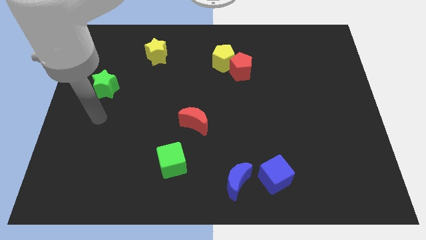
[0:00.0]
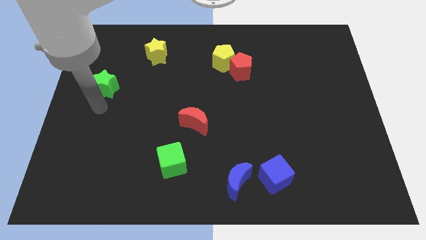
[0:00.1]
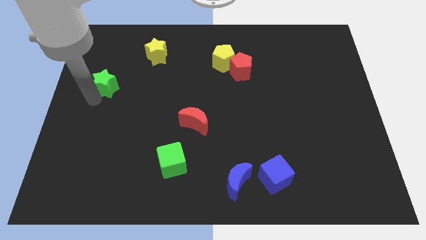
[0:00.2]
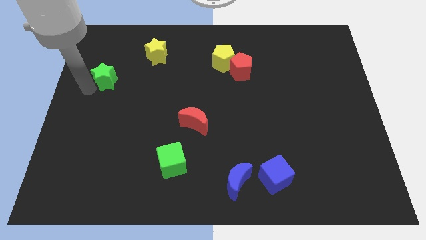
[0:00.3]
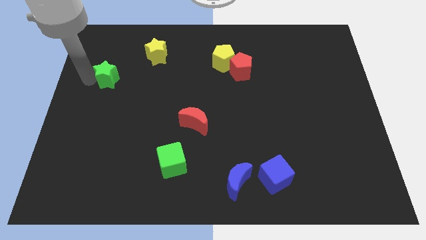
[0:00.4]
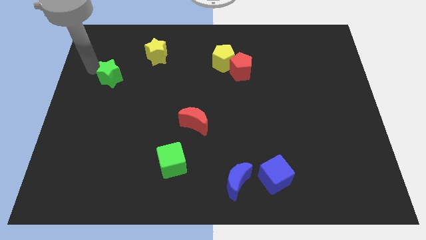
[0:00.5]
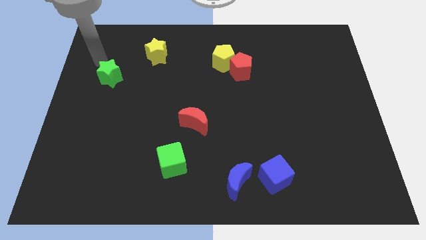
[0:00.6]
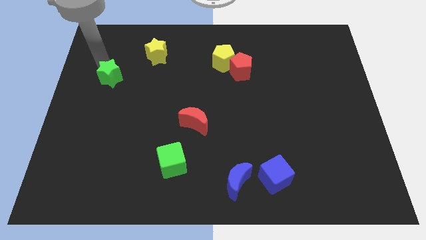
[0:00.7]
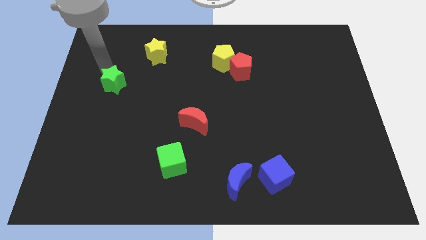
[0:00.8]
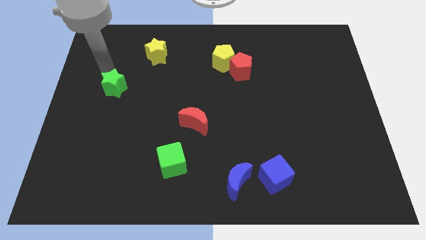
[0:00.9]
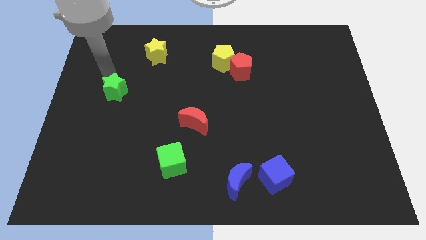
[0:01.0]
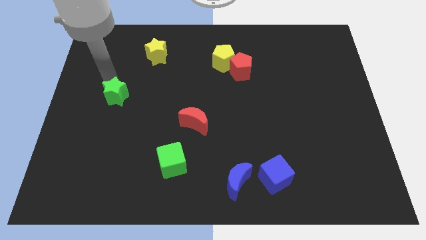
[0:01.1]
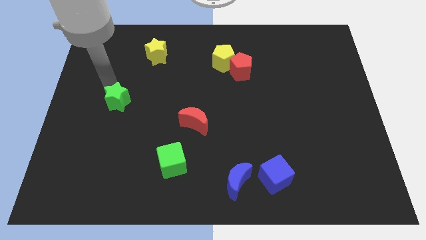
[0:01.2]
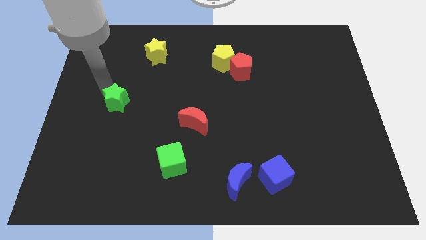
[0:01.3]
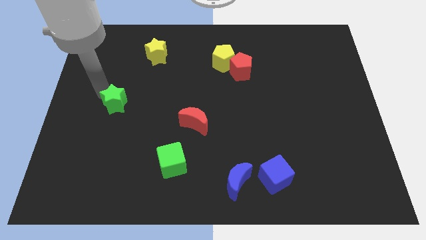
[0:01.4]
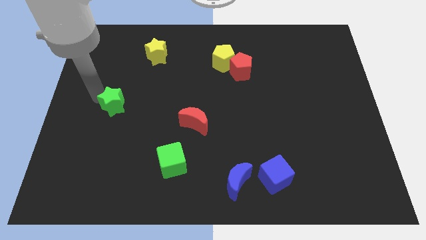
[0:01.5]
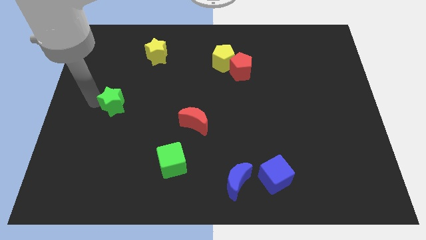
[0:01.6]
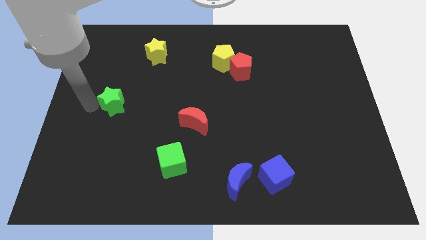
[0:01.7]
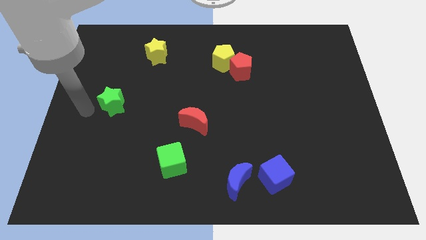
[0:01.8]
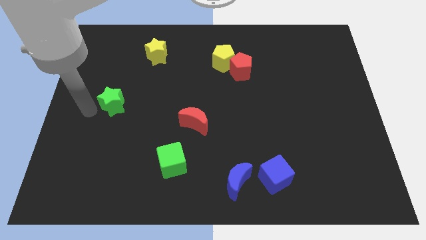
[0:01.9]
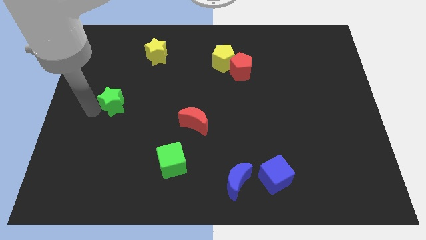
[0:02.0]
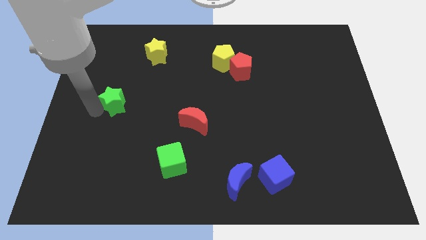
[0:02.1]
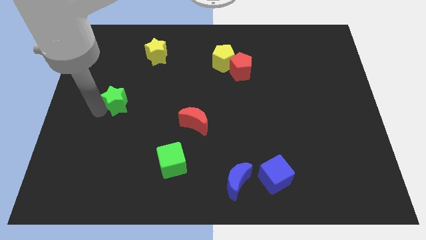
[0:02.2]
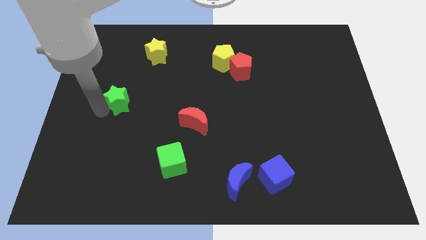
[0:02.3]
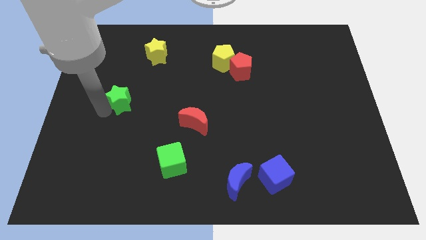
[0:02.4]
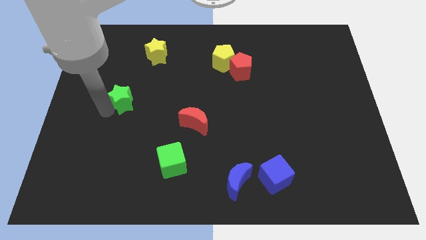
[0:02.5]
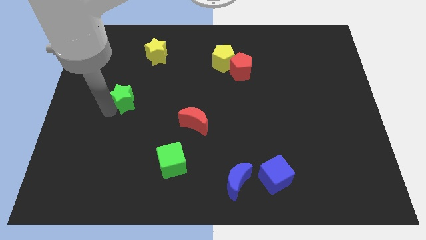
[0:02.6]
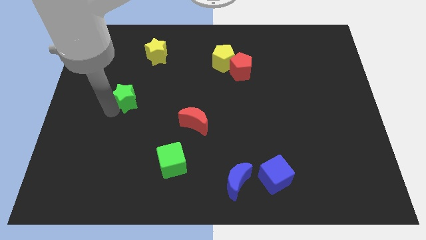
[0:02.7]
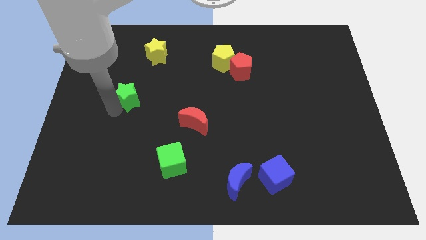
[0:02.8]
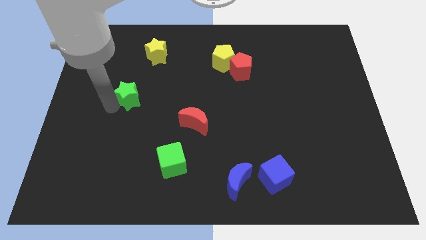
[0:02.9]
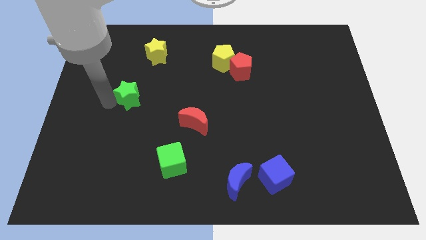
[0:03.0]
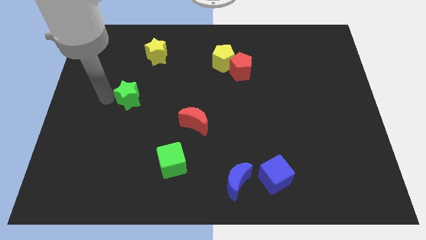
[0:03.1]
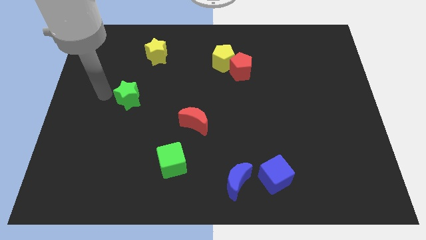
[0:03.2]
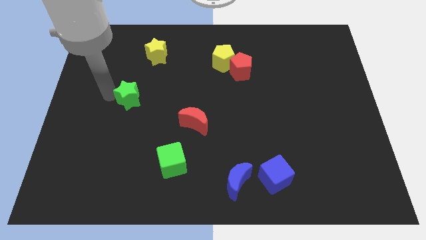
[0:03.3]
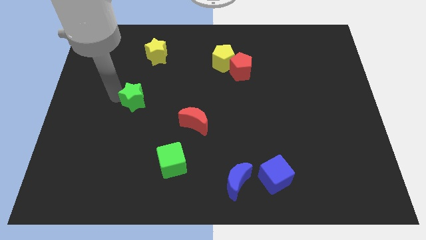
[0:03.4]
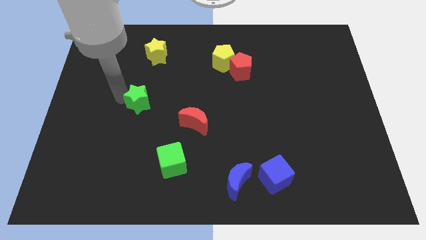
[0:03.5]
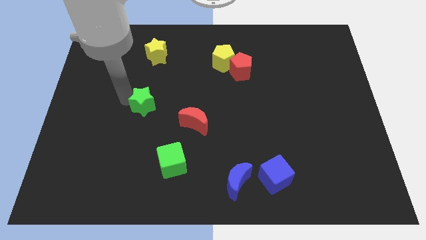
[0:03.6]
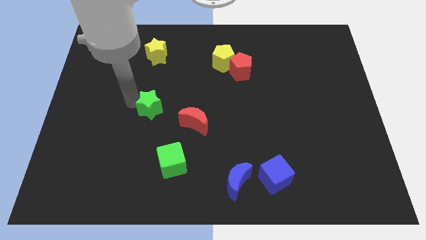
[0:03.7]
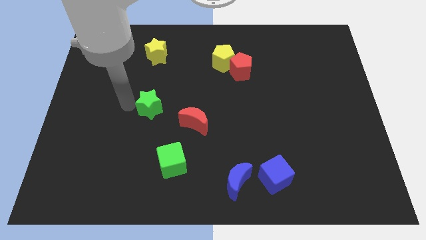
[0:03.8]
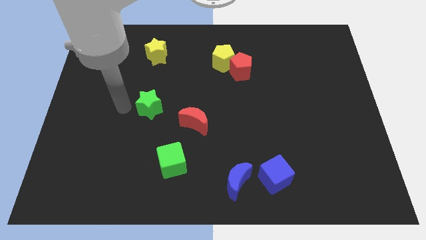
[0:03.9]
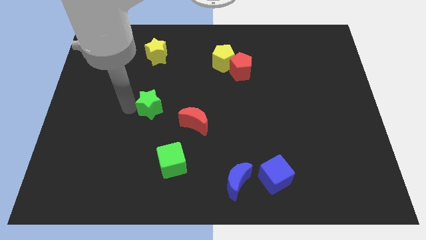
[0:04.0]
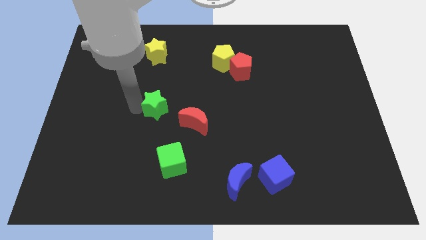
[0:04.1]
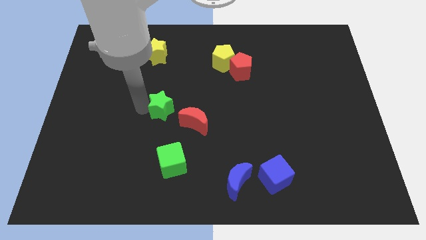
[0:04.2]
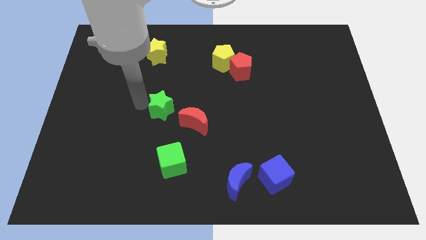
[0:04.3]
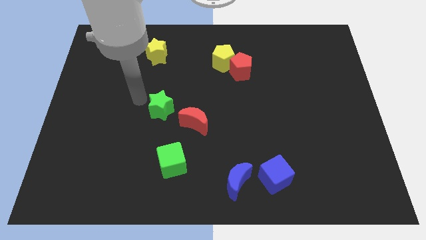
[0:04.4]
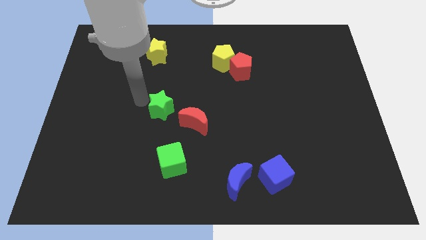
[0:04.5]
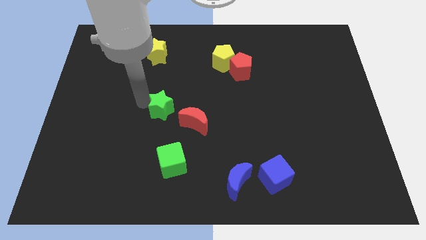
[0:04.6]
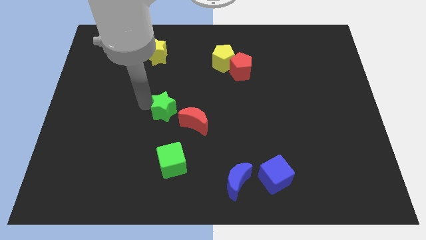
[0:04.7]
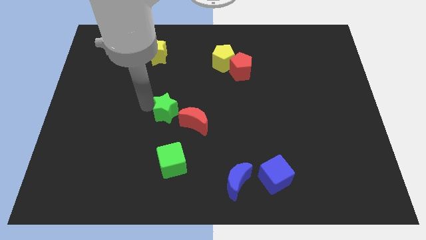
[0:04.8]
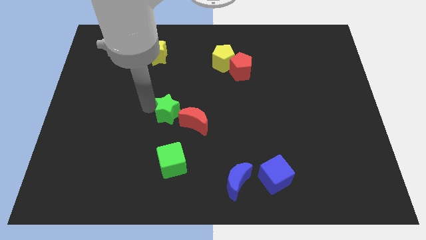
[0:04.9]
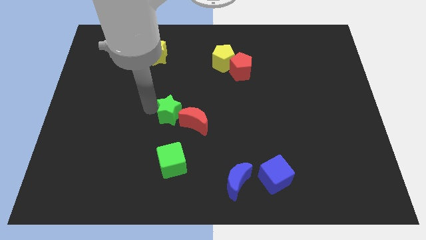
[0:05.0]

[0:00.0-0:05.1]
slide the green star next to the red moon

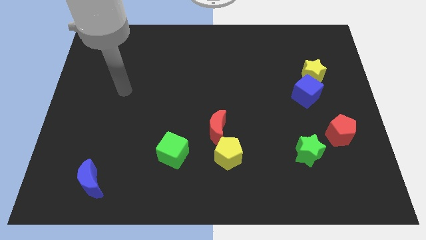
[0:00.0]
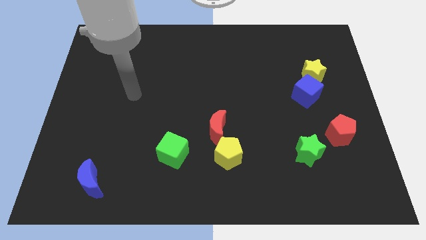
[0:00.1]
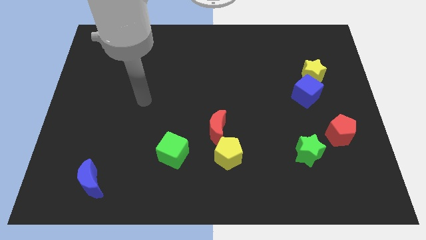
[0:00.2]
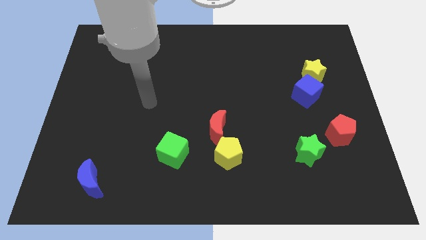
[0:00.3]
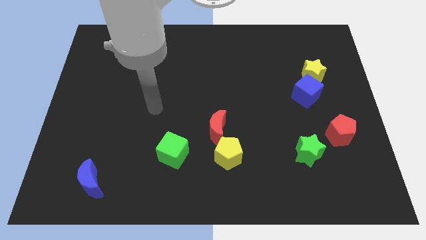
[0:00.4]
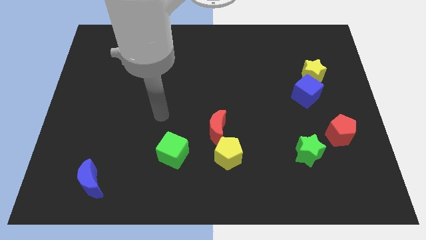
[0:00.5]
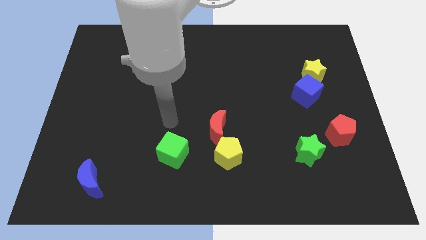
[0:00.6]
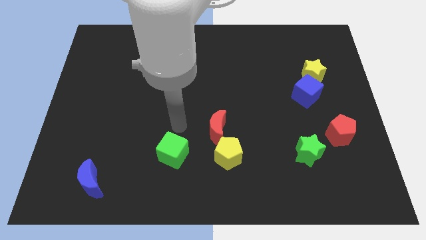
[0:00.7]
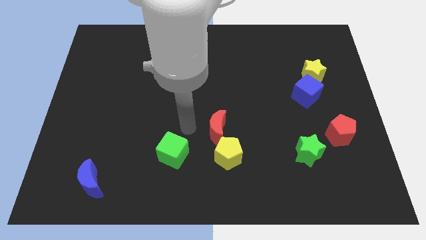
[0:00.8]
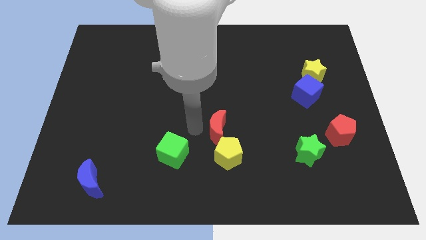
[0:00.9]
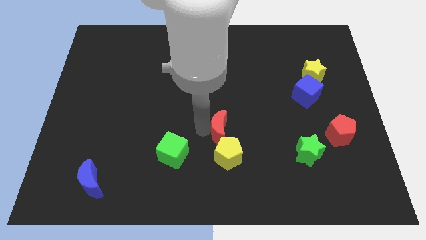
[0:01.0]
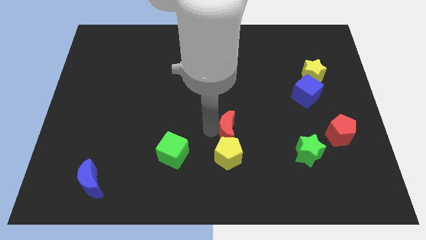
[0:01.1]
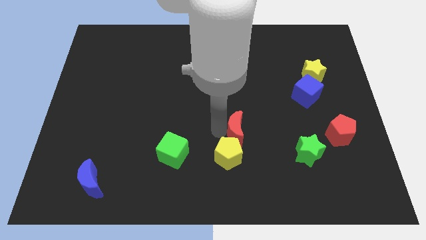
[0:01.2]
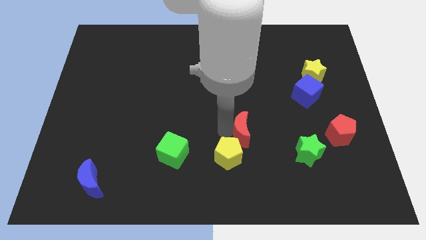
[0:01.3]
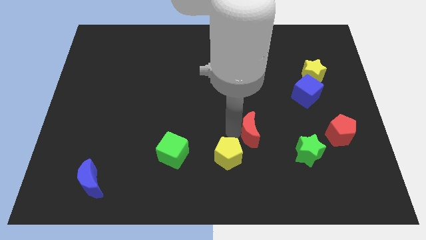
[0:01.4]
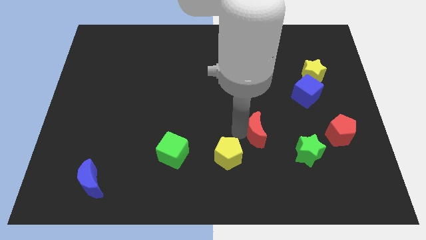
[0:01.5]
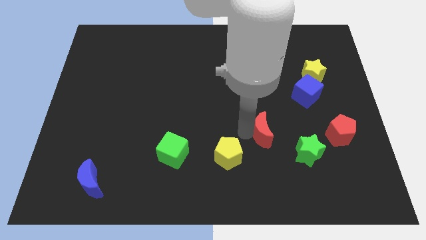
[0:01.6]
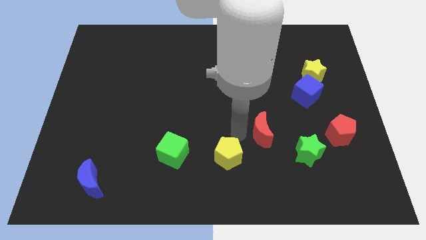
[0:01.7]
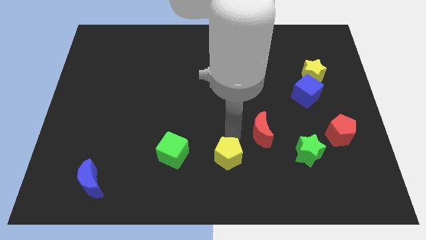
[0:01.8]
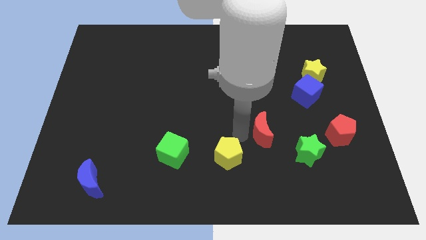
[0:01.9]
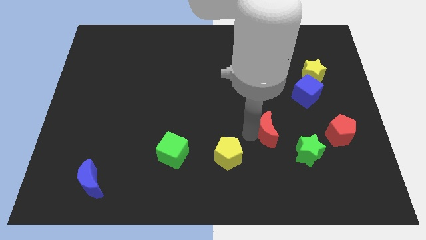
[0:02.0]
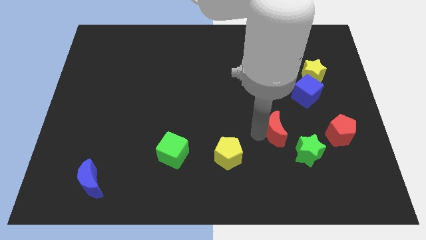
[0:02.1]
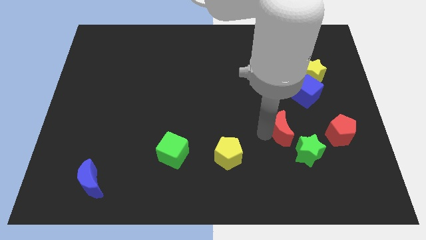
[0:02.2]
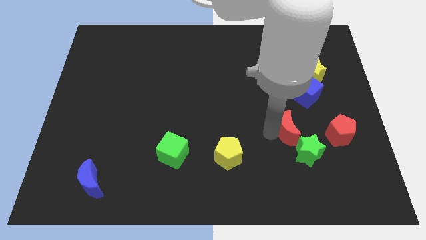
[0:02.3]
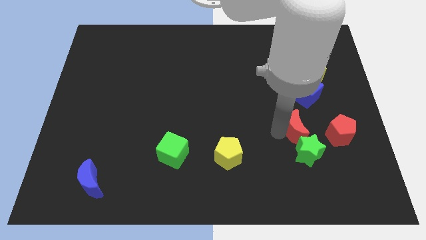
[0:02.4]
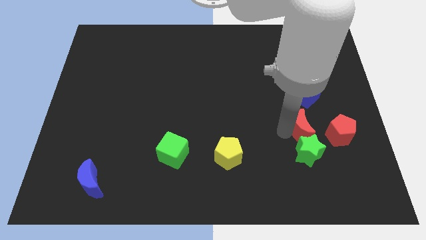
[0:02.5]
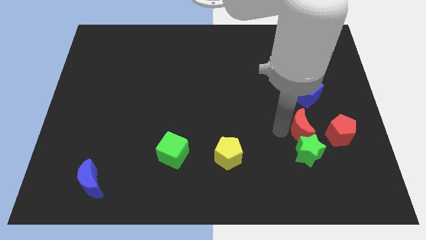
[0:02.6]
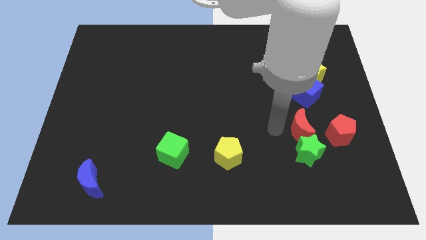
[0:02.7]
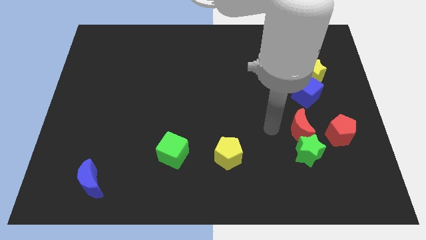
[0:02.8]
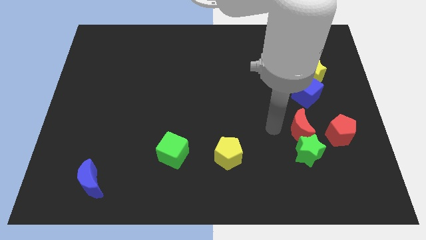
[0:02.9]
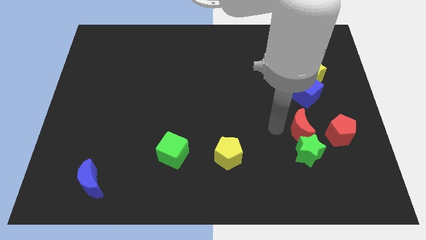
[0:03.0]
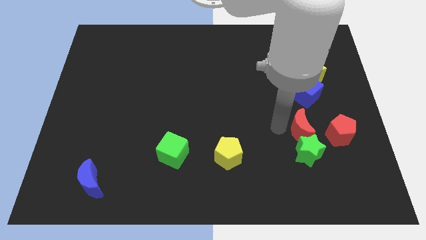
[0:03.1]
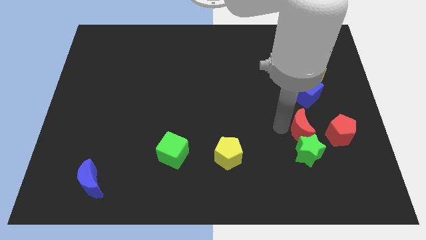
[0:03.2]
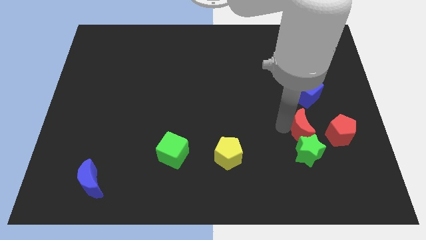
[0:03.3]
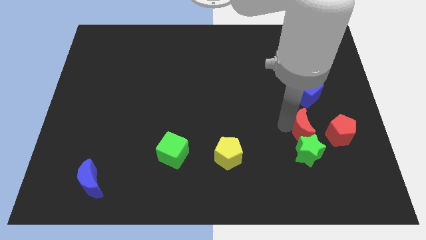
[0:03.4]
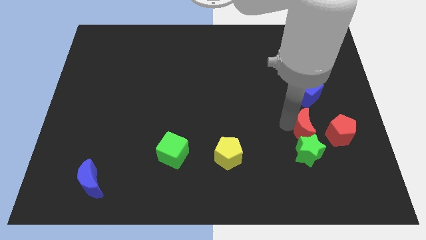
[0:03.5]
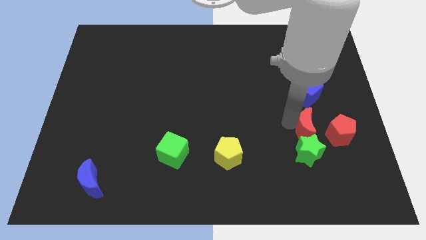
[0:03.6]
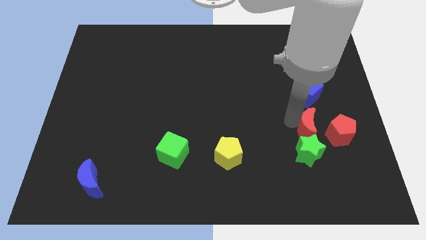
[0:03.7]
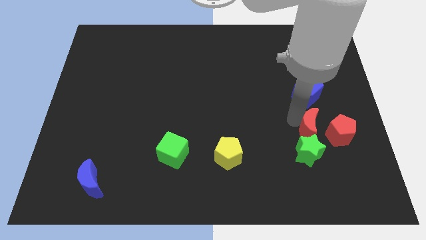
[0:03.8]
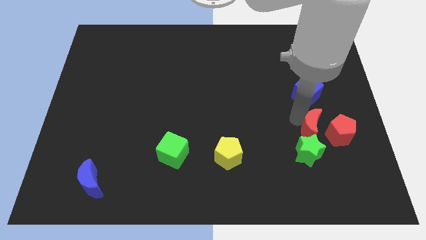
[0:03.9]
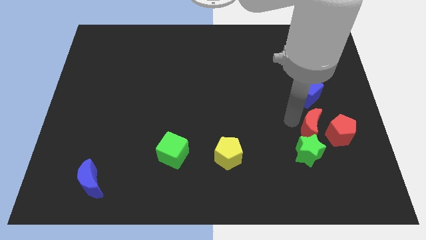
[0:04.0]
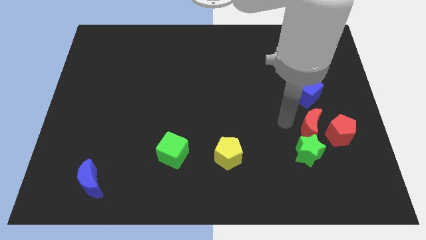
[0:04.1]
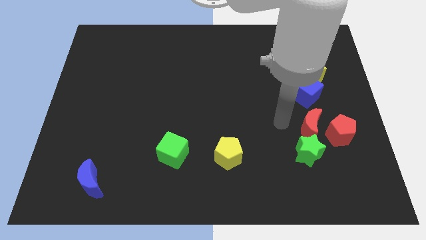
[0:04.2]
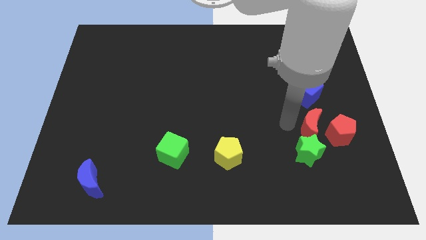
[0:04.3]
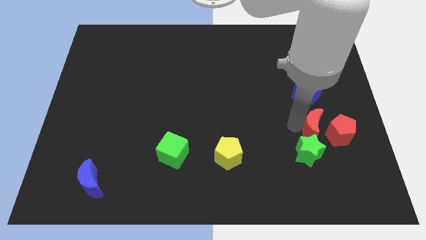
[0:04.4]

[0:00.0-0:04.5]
push the red moon close to the red pentagon
